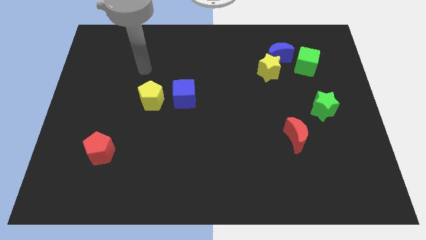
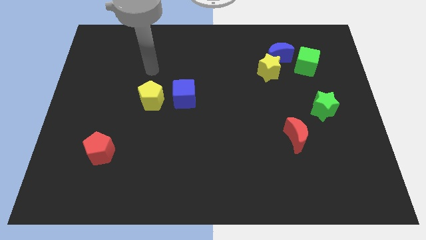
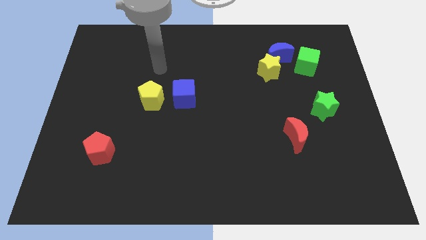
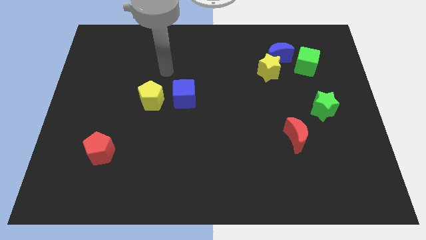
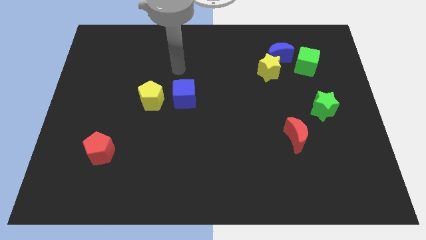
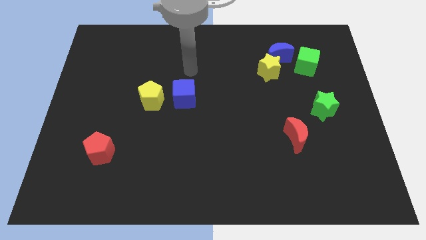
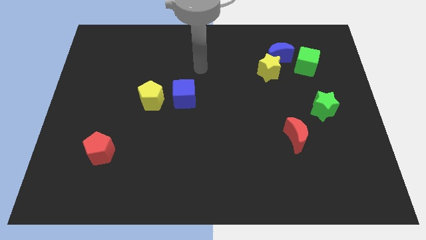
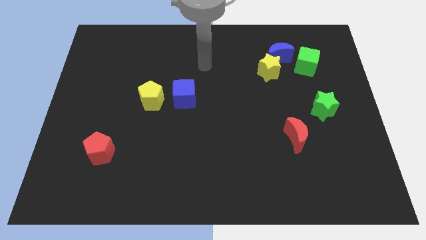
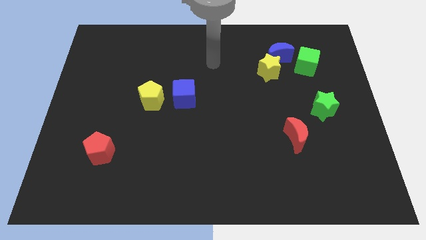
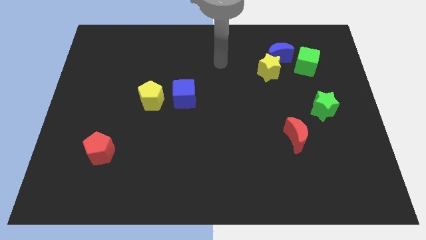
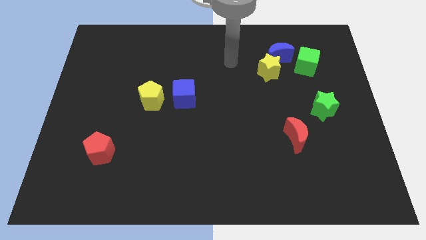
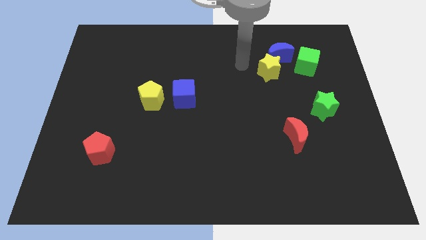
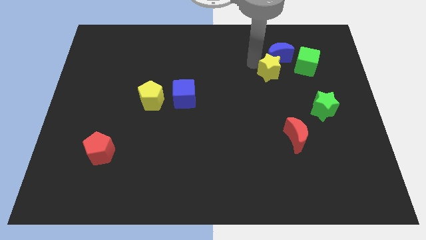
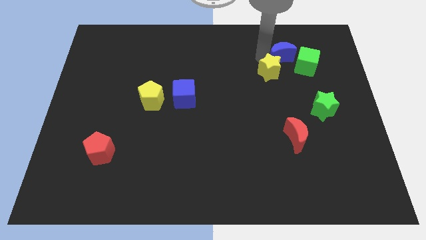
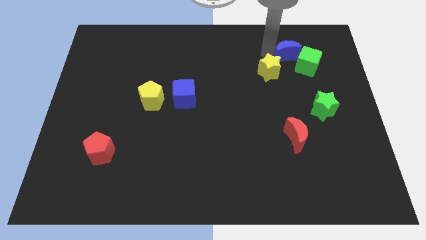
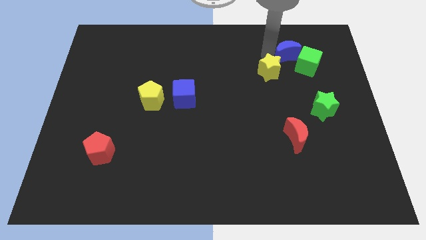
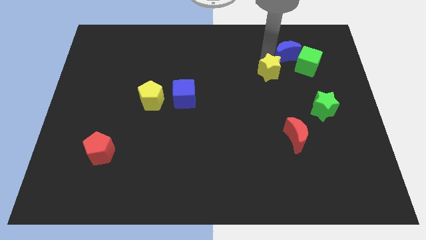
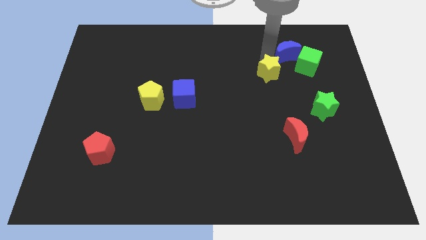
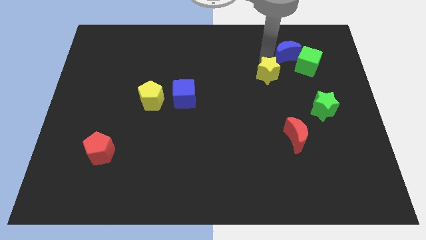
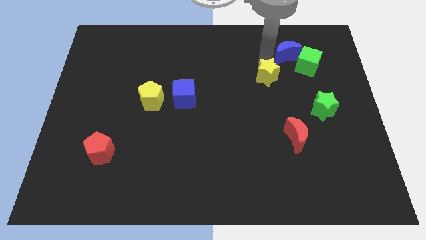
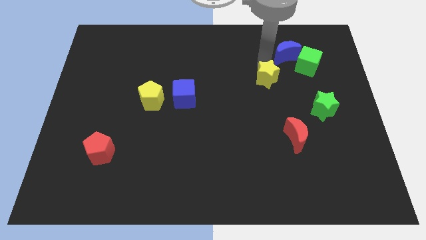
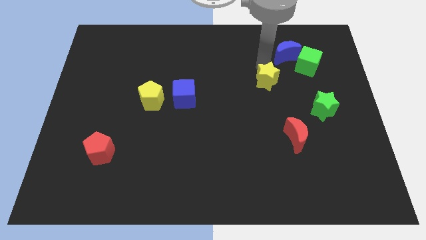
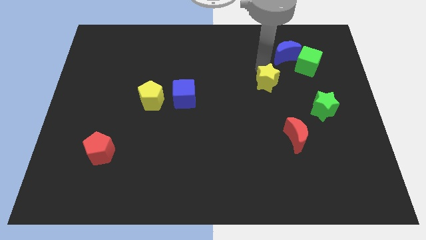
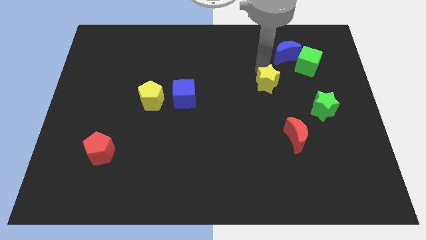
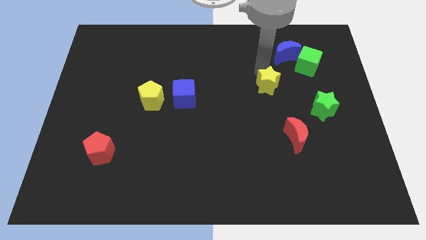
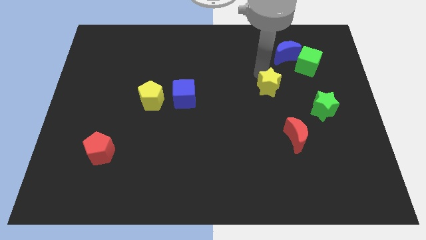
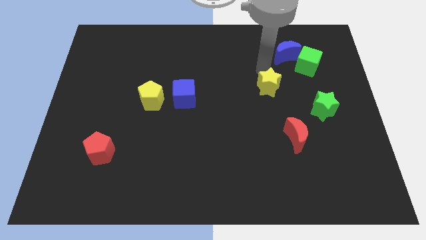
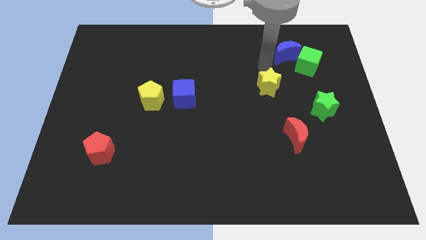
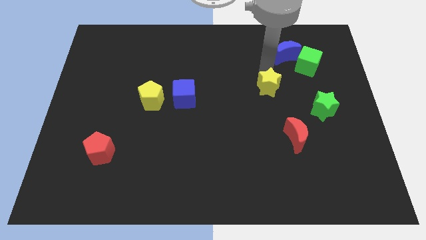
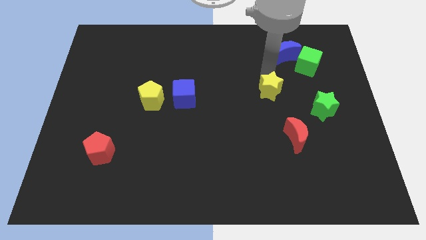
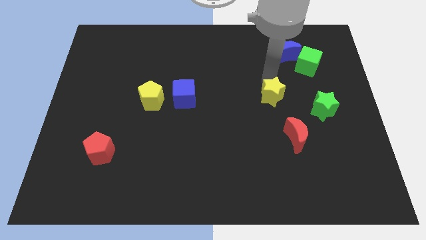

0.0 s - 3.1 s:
slide the yellow star a little down

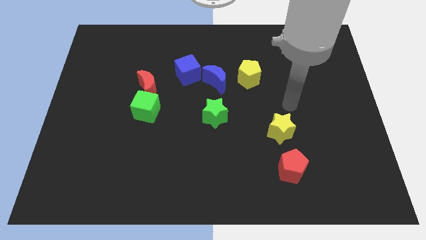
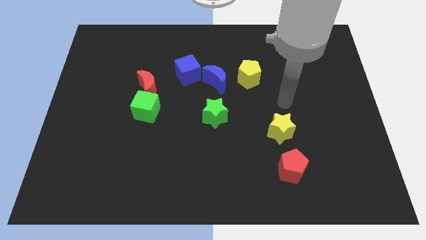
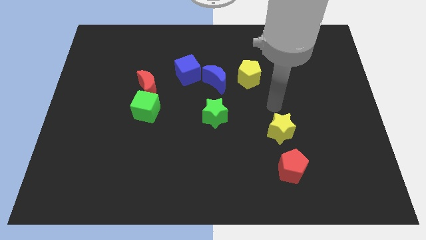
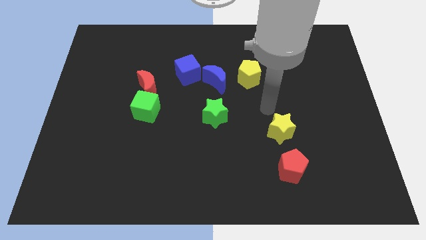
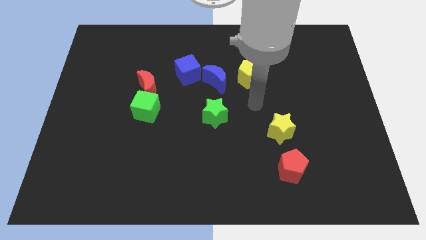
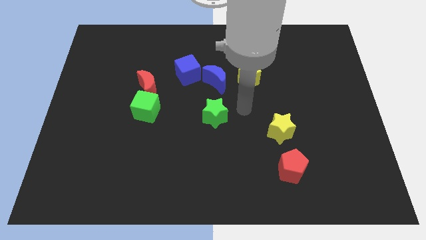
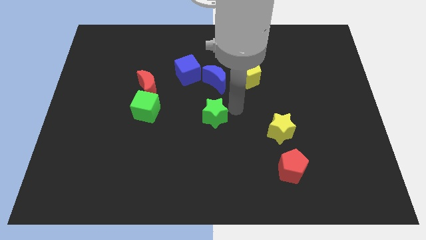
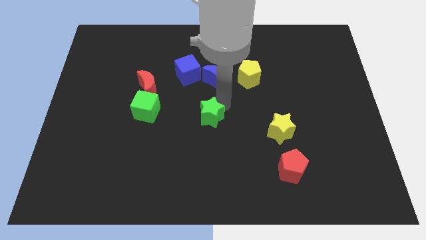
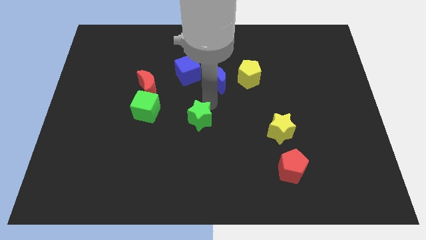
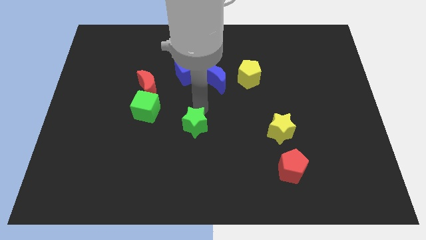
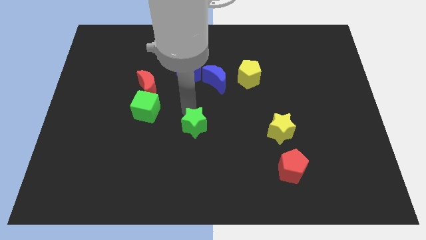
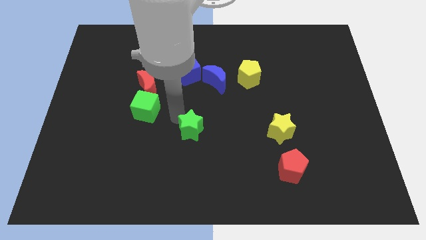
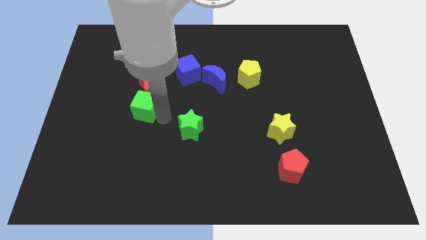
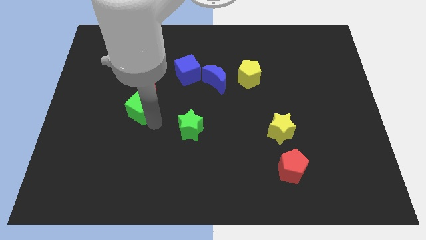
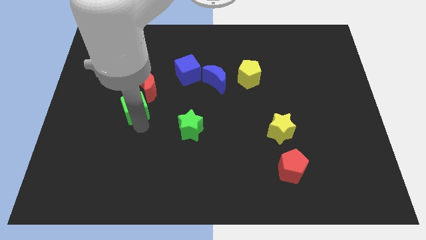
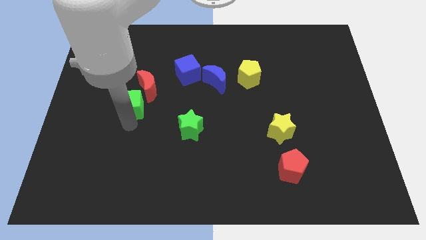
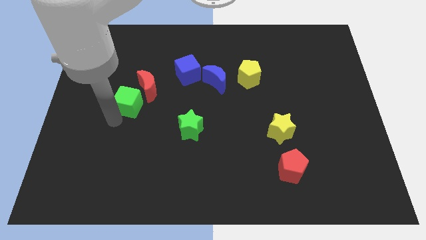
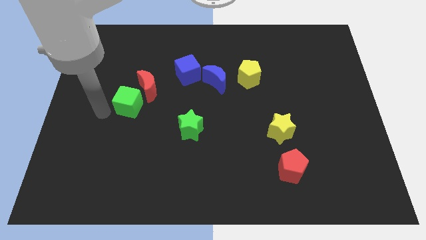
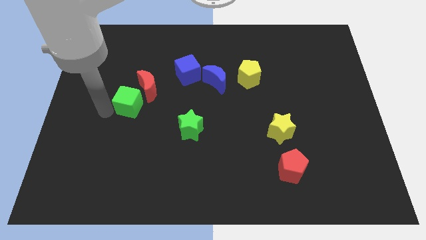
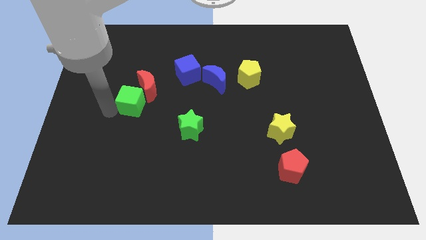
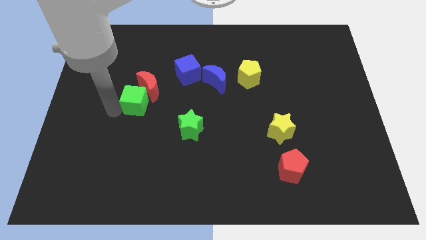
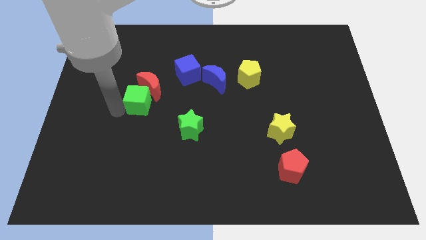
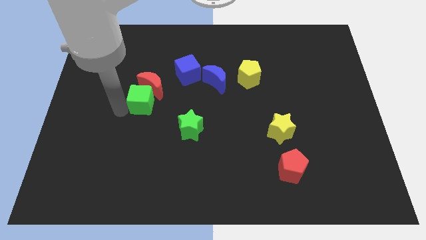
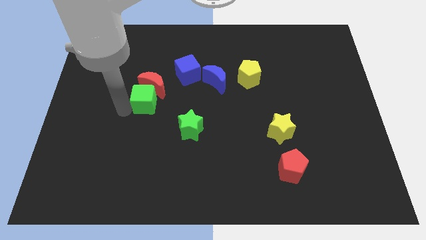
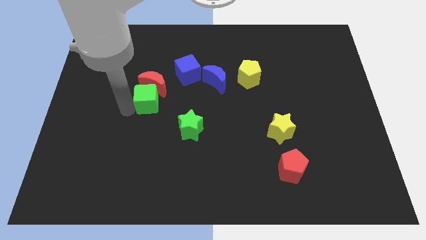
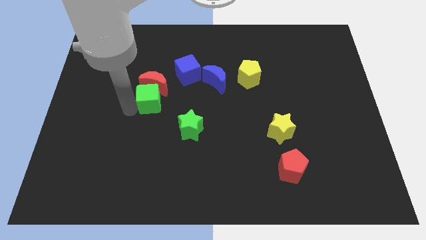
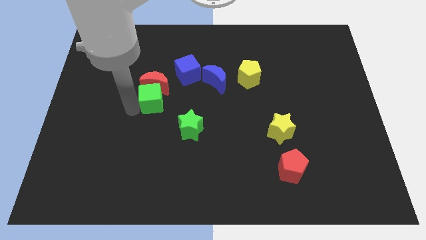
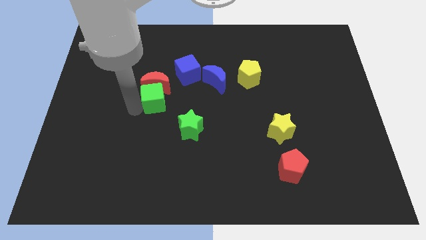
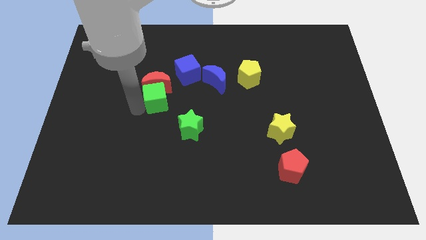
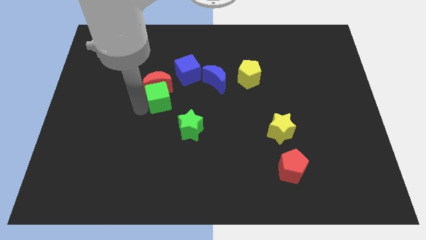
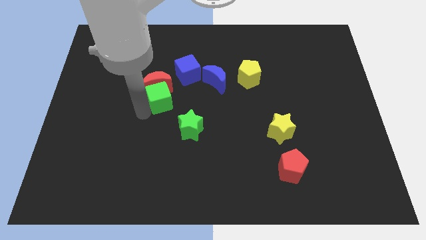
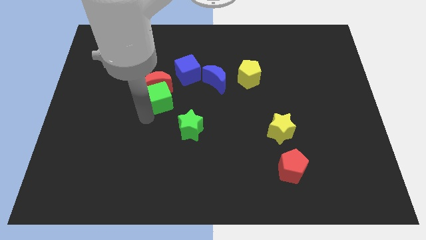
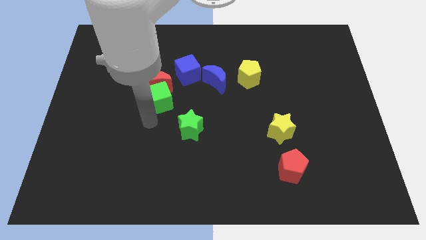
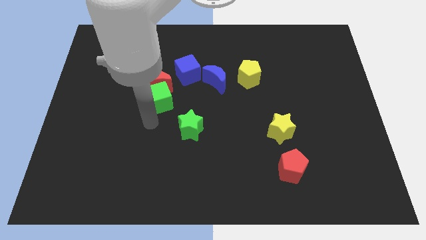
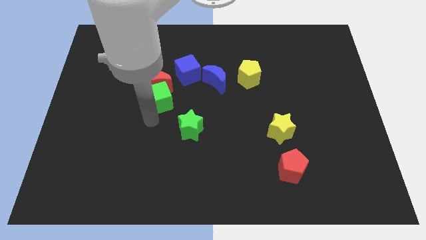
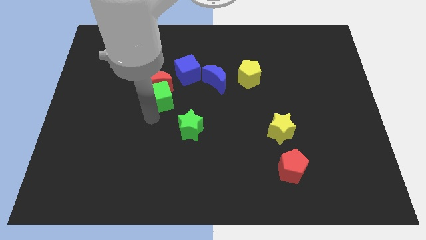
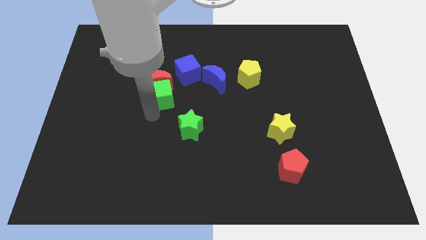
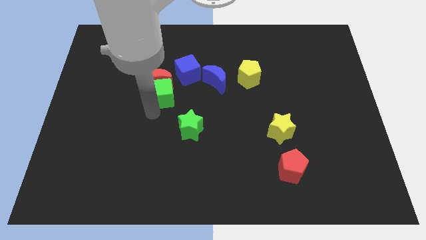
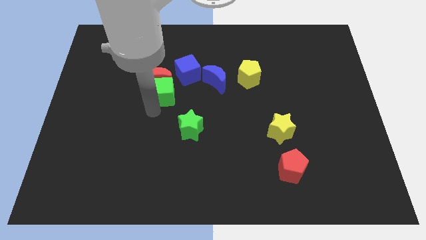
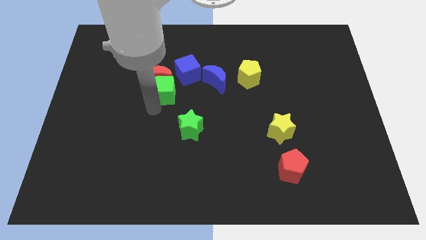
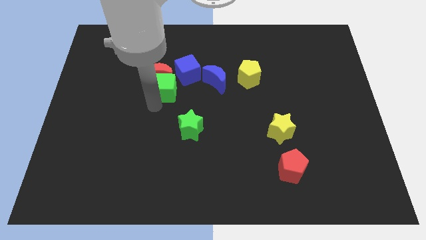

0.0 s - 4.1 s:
move the green cube diagonally upwards and to the right somewhat

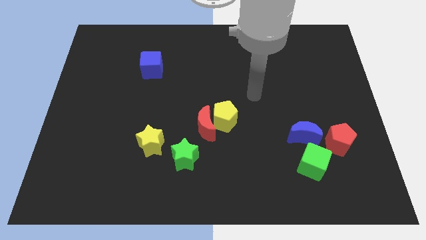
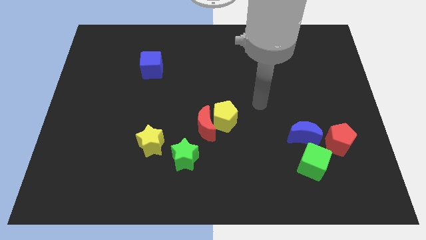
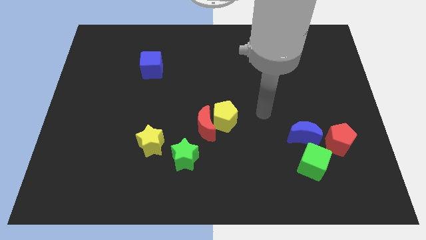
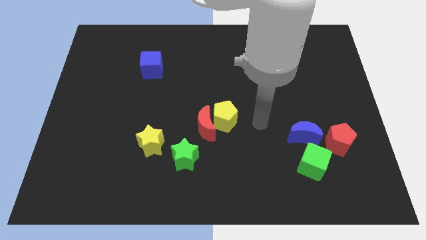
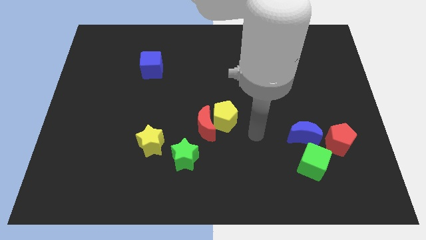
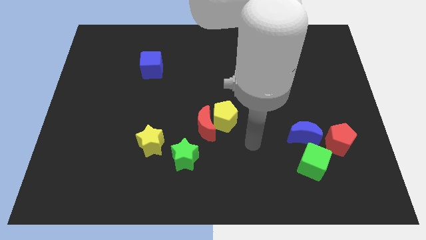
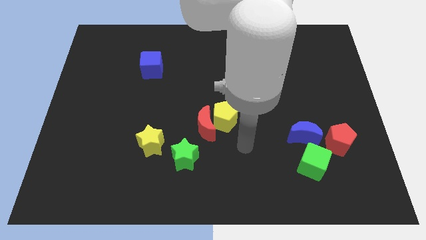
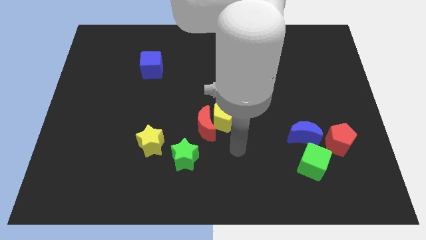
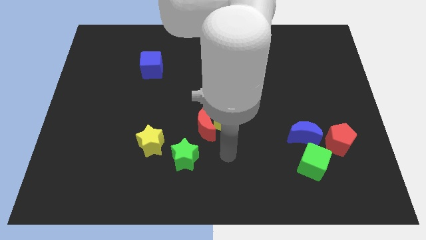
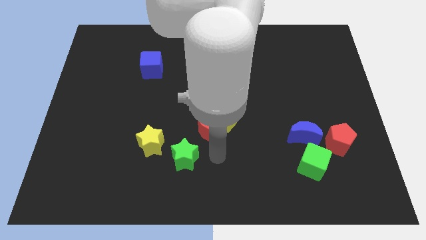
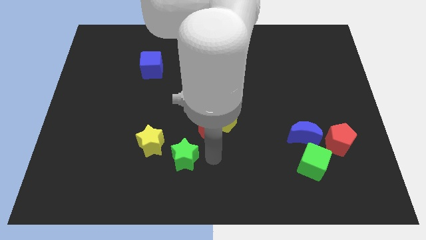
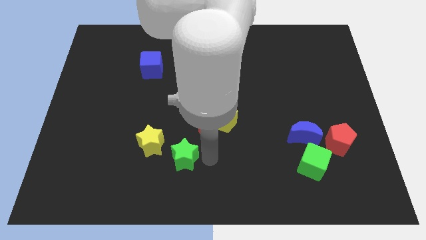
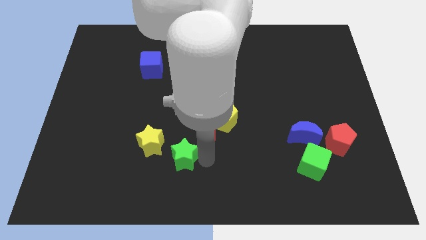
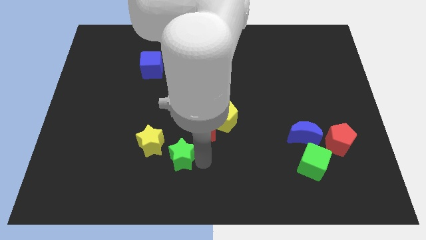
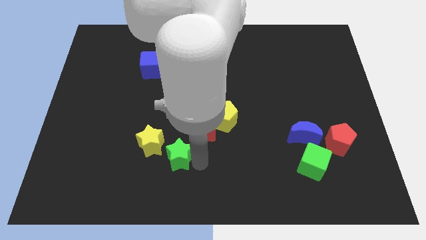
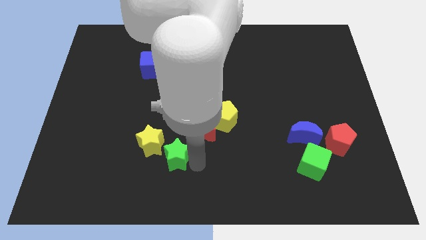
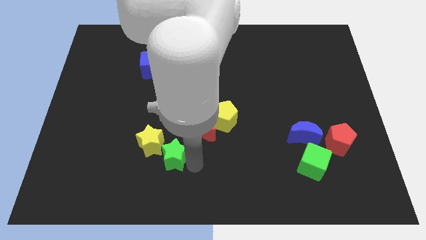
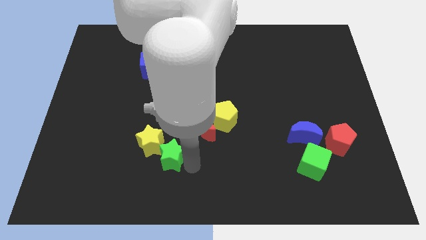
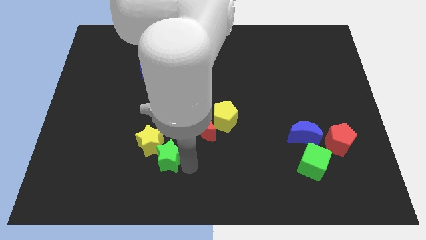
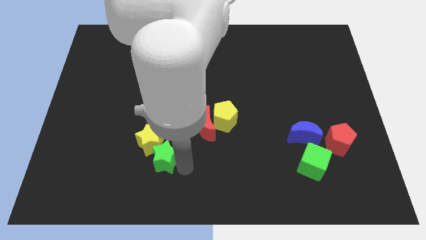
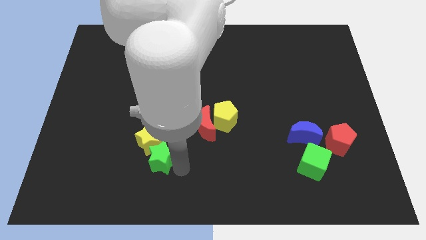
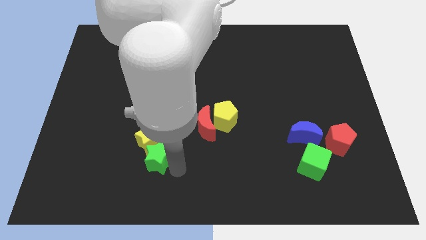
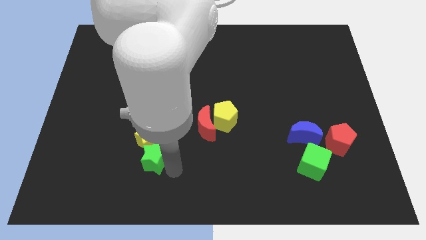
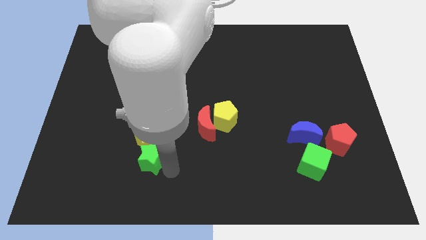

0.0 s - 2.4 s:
slightly move the green star left
